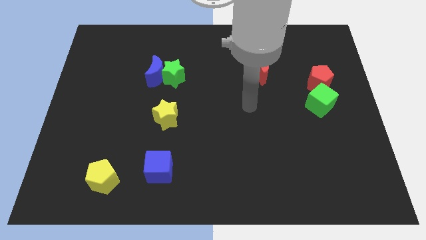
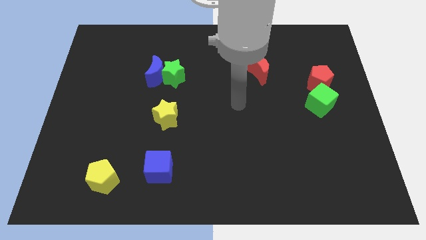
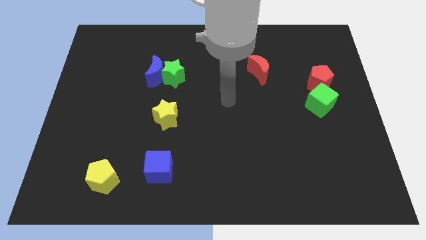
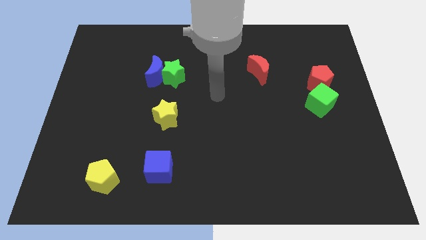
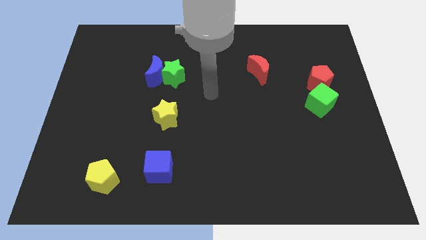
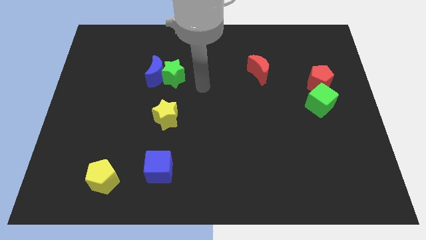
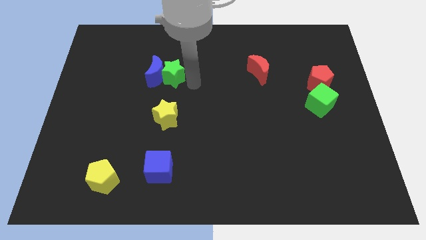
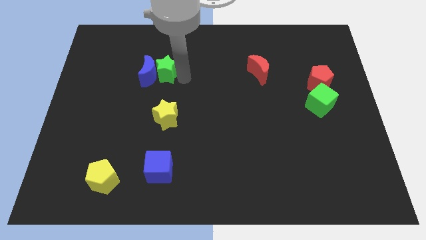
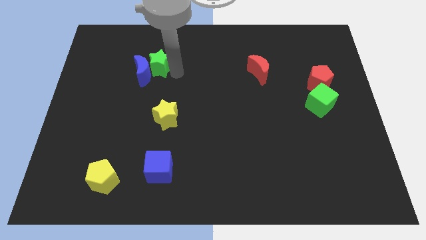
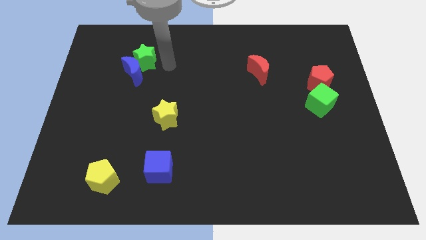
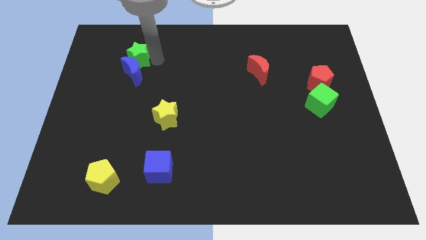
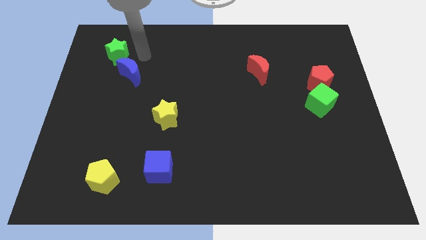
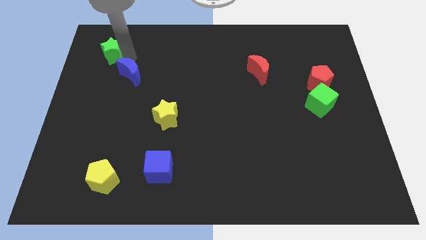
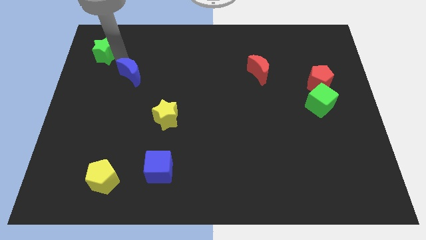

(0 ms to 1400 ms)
move the blue moon away from the green star

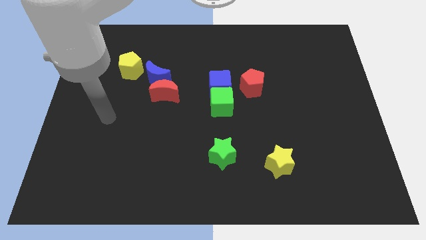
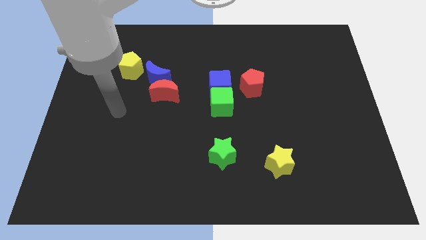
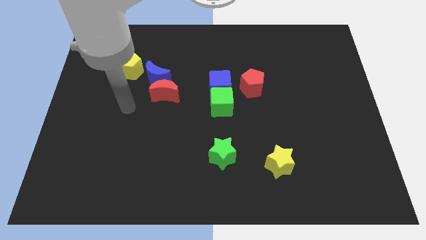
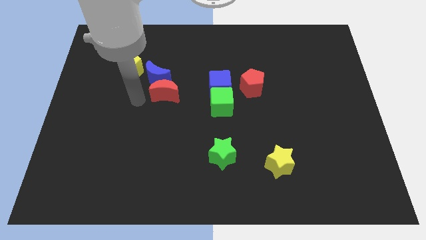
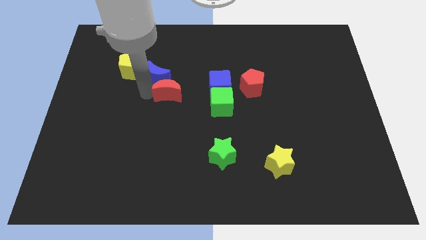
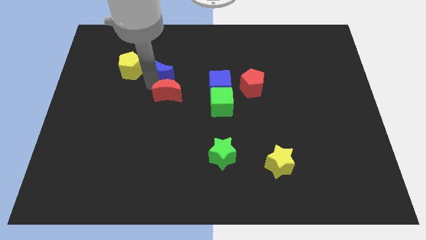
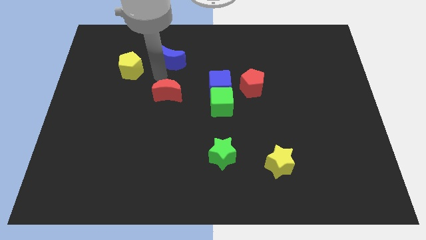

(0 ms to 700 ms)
move the red moon away from the blue moon

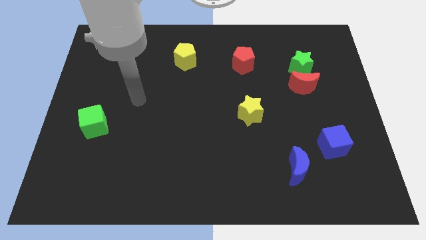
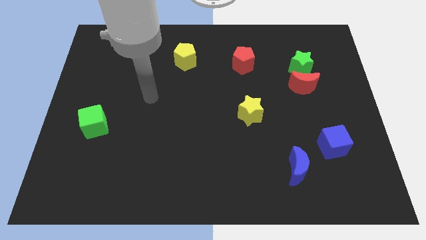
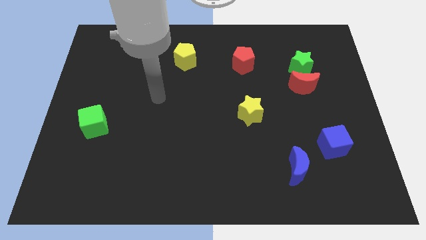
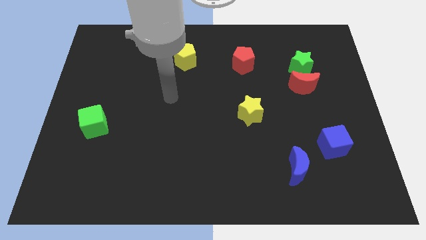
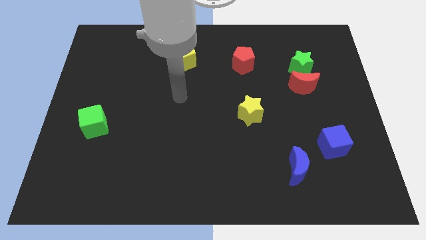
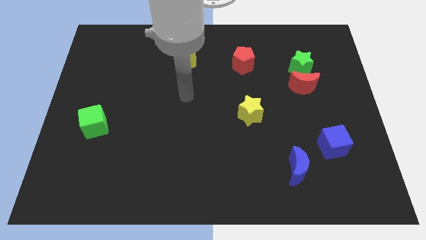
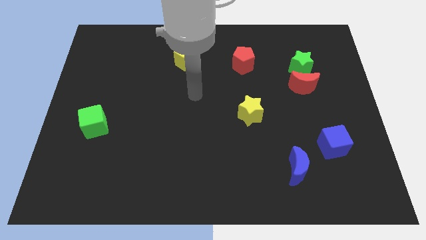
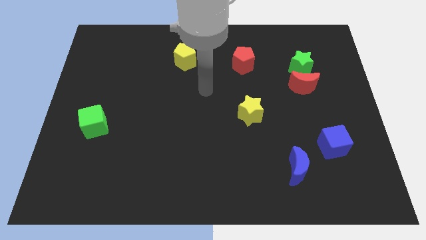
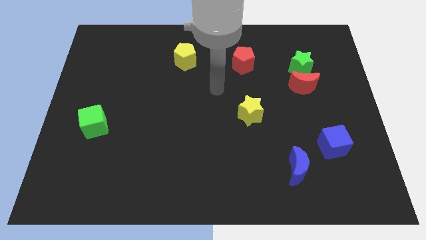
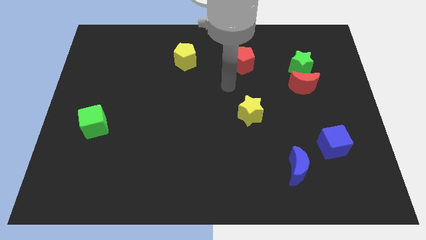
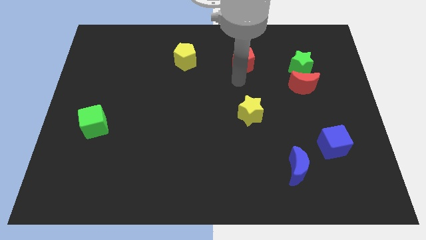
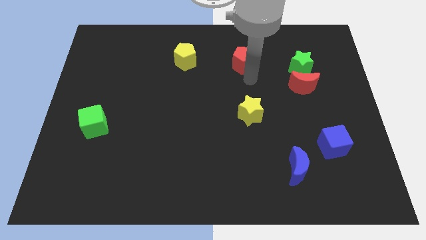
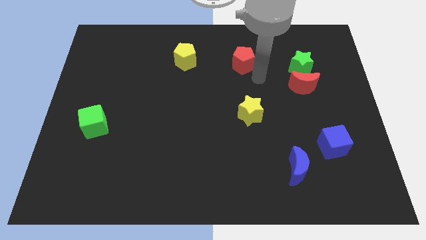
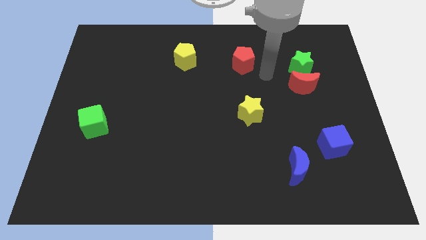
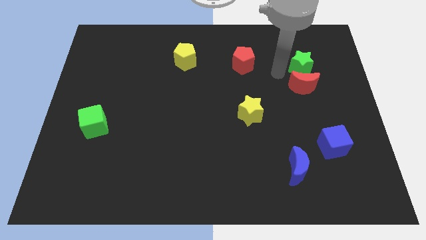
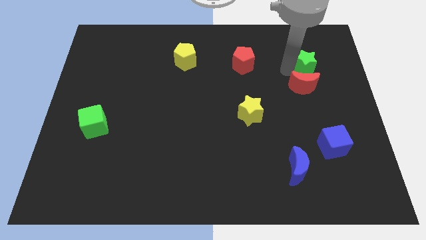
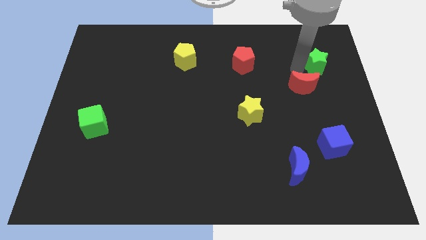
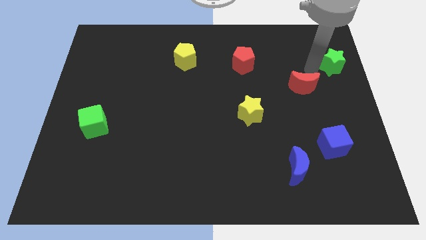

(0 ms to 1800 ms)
separate the red moon from the green star

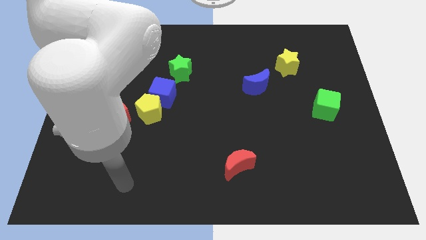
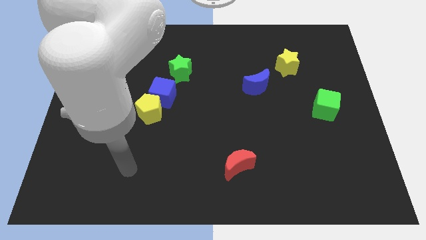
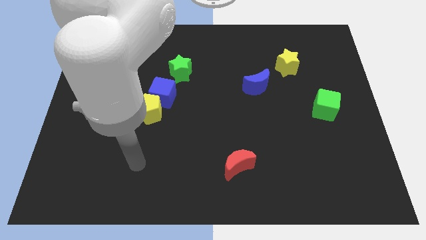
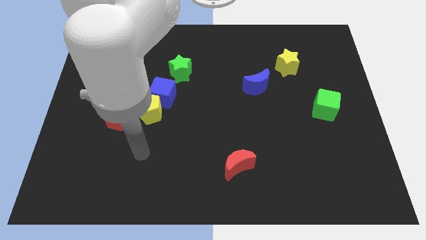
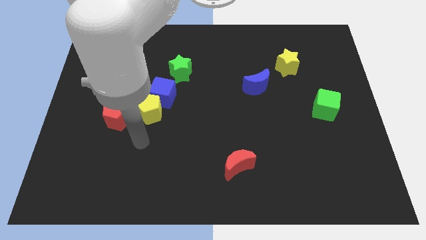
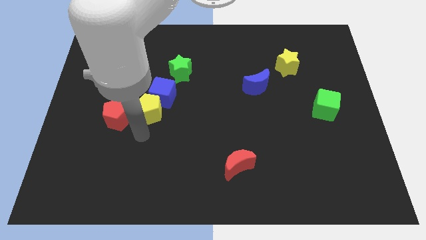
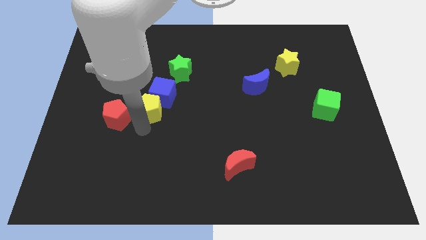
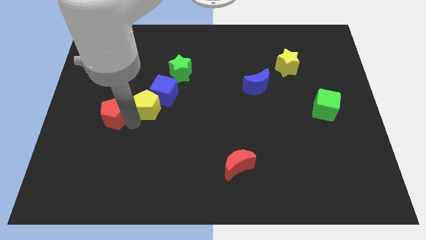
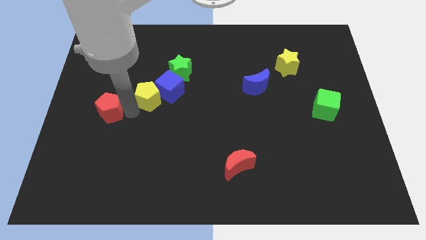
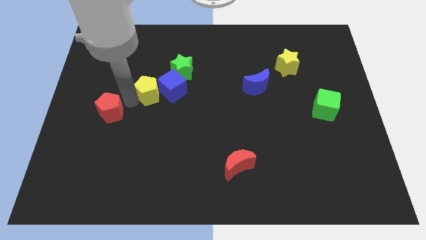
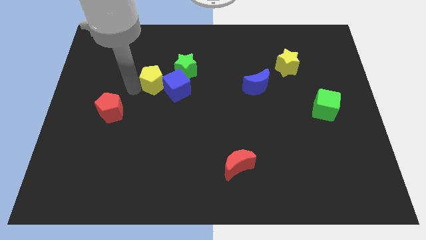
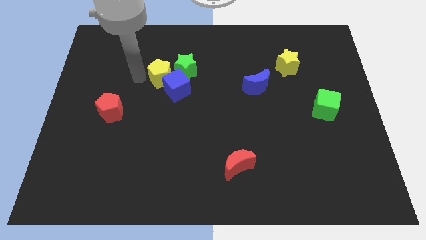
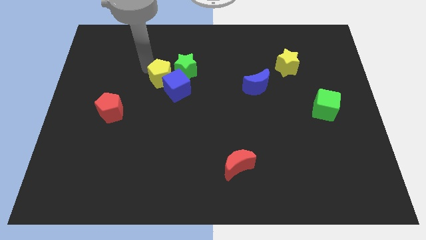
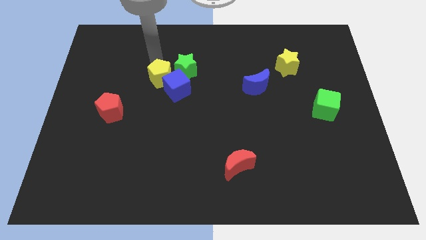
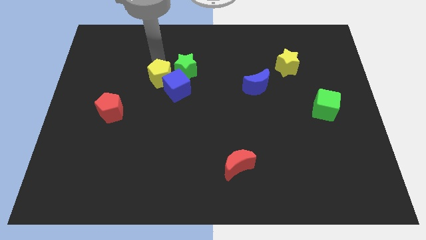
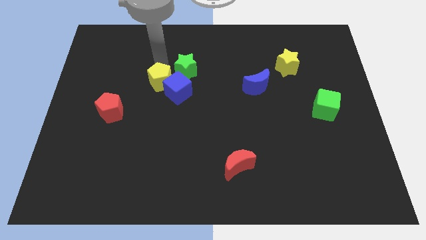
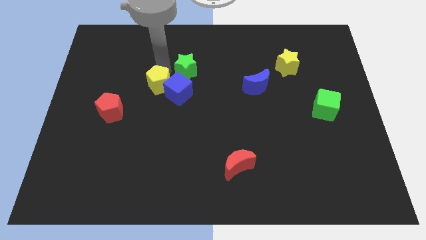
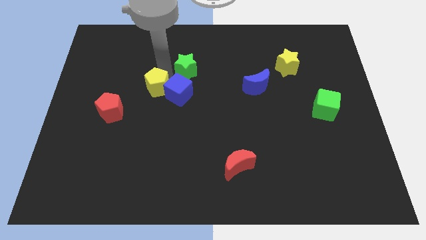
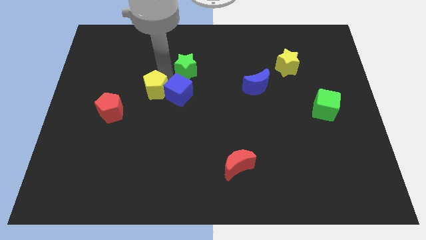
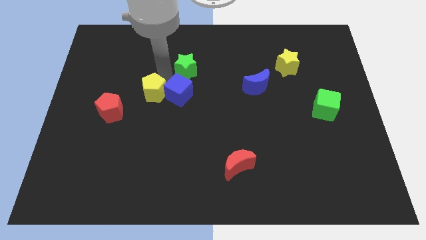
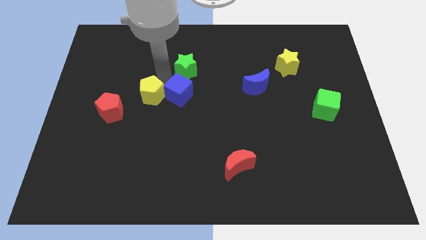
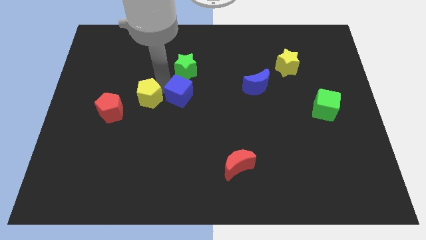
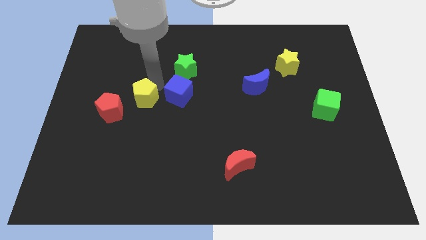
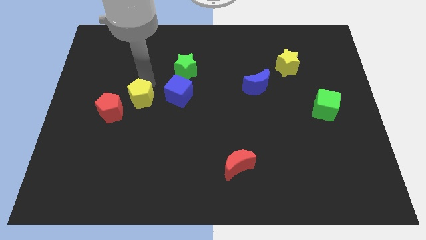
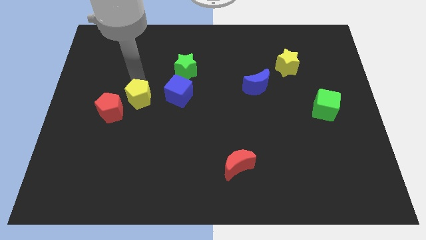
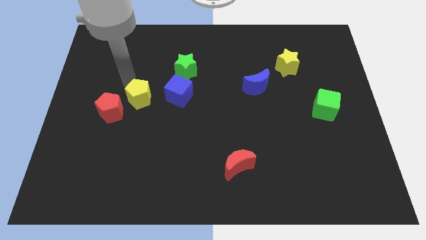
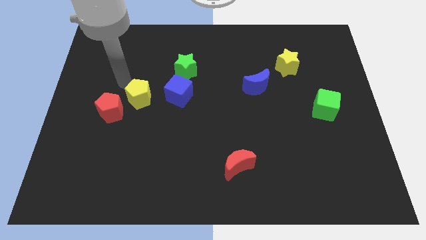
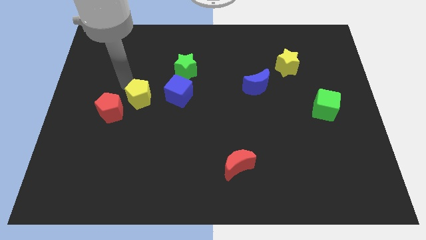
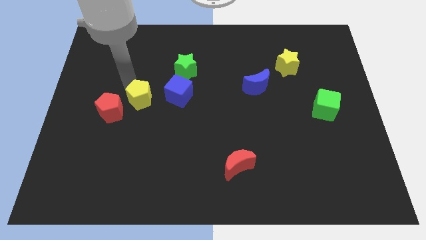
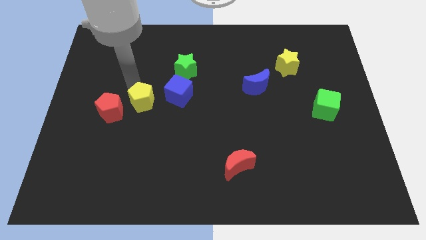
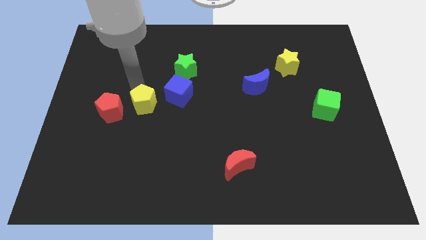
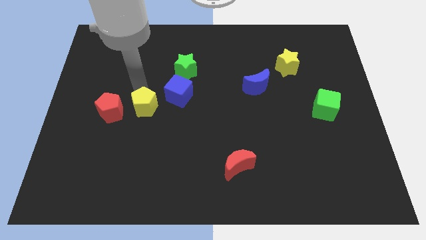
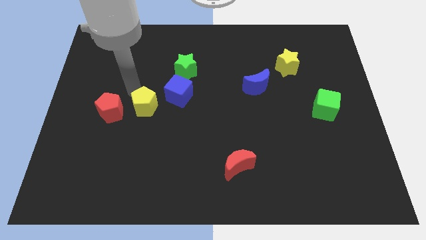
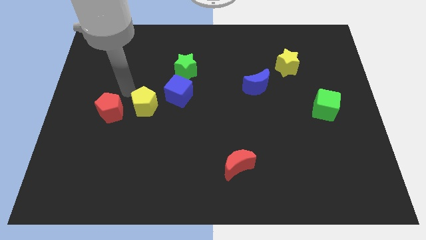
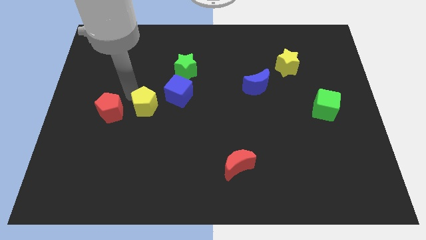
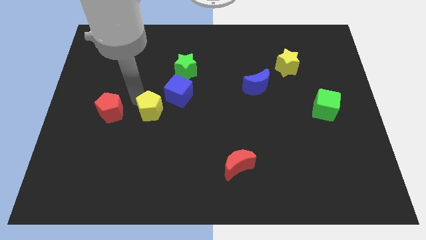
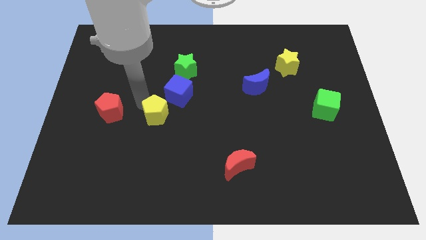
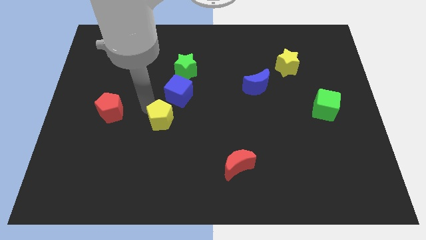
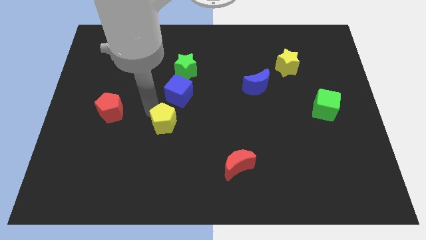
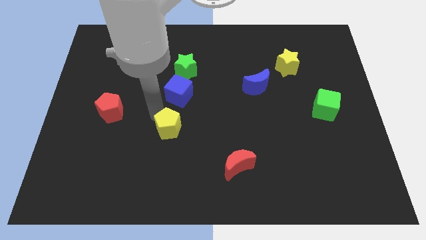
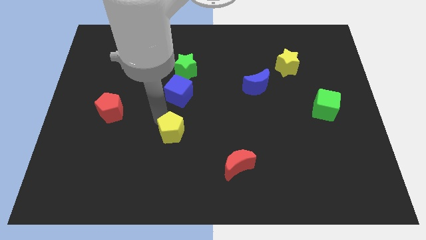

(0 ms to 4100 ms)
move the yellow pentagon away from the blue cube and red pentagon

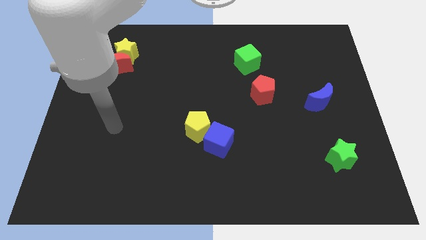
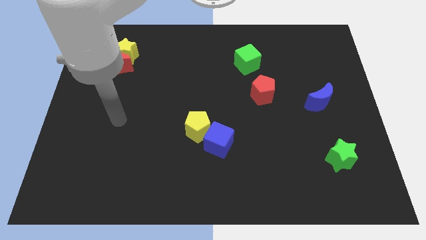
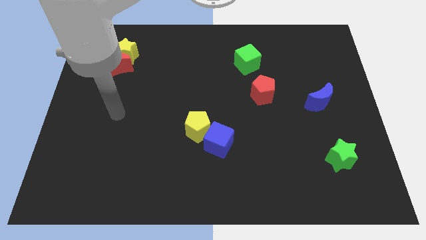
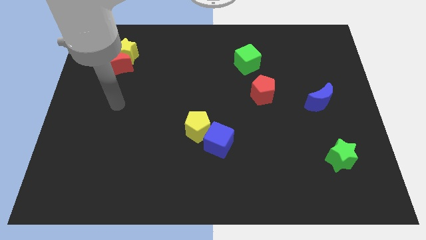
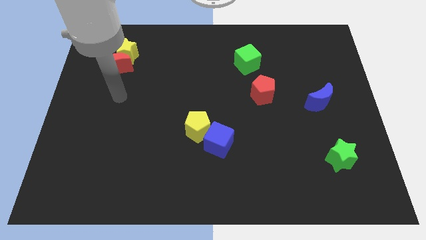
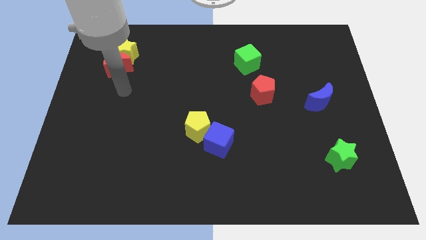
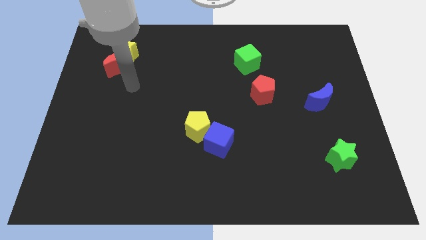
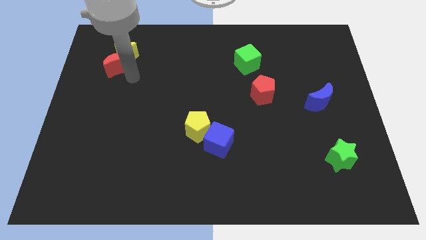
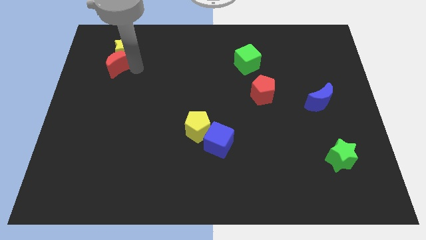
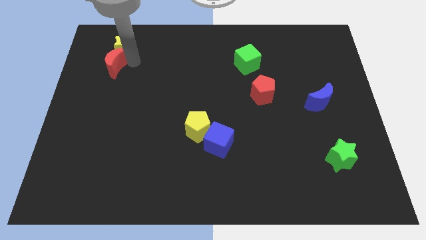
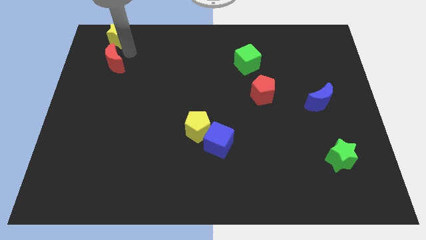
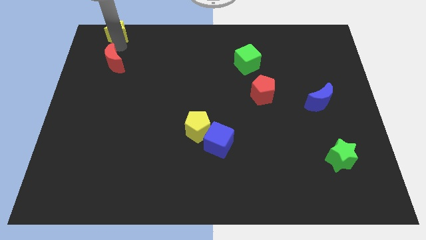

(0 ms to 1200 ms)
pull the red moon apart from the yellow star

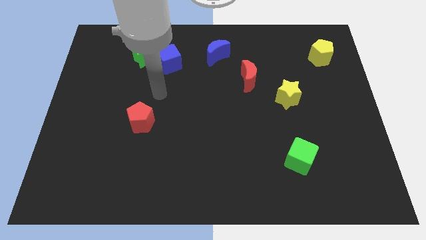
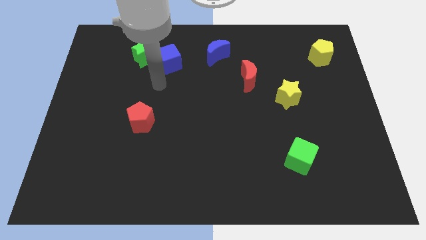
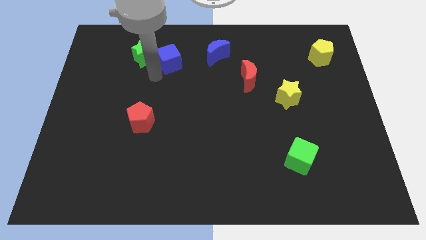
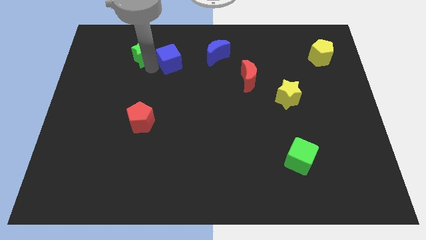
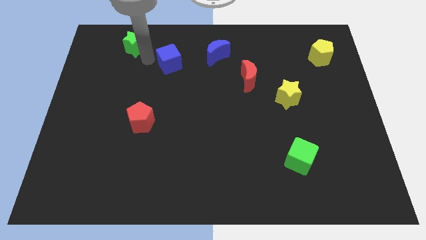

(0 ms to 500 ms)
separate the blue cube from the green star
